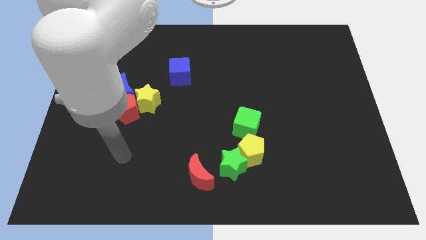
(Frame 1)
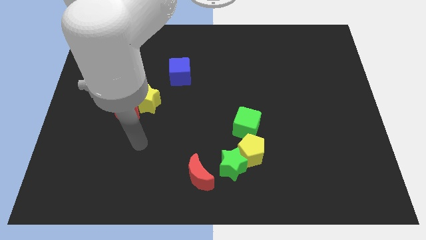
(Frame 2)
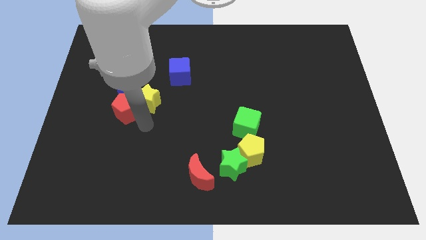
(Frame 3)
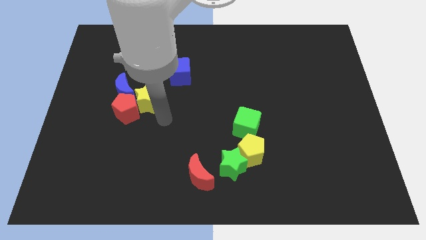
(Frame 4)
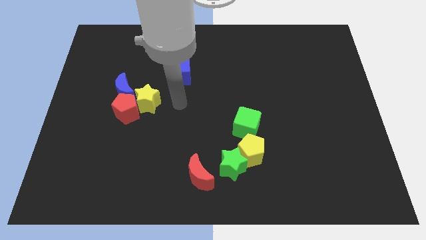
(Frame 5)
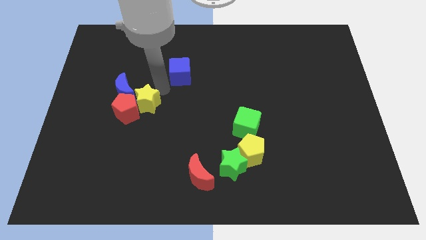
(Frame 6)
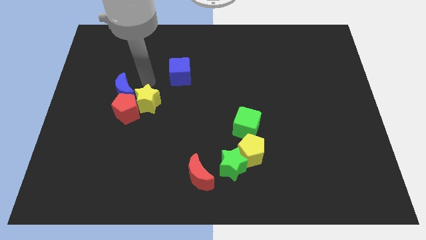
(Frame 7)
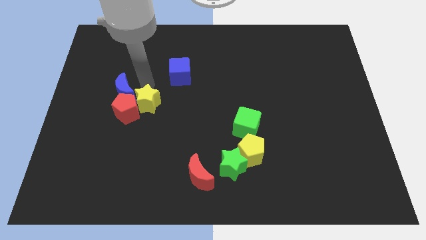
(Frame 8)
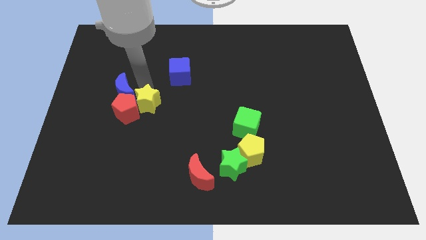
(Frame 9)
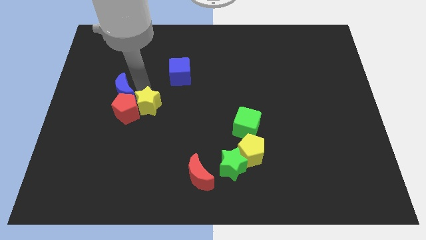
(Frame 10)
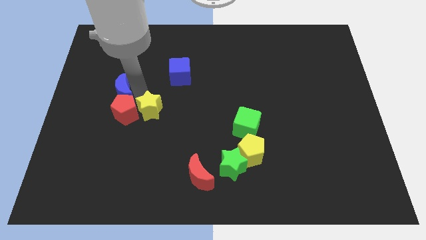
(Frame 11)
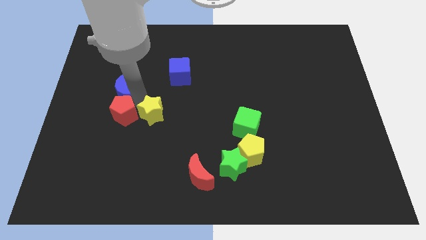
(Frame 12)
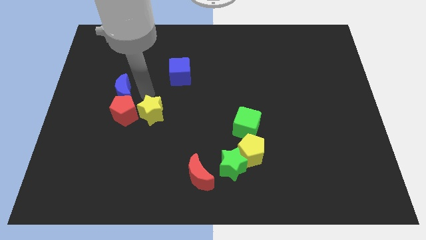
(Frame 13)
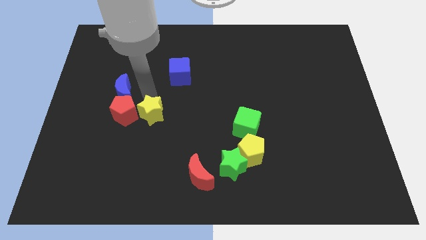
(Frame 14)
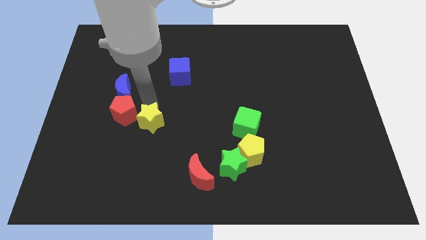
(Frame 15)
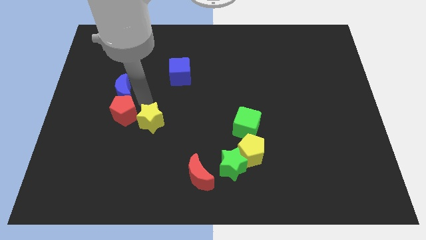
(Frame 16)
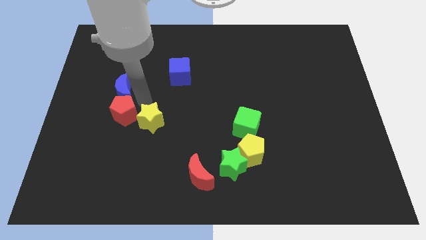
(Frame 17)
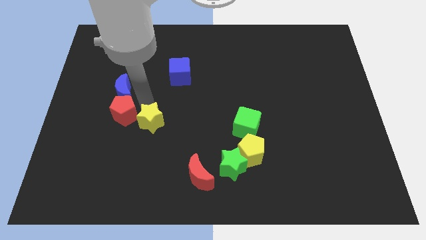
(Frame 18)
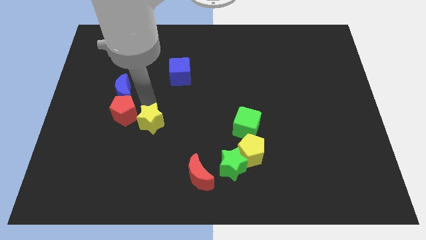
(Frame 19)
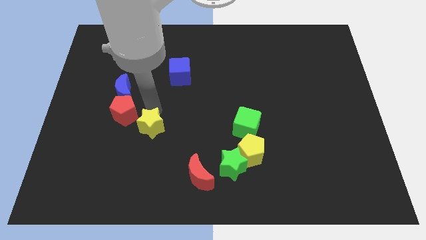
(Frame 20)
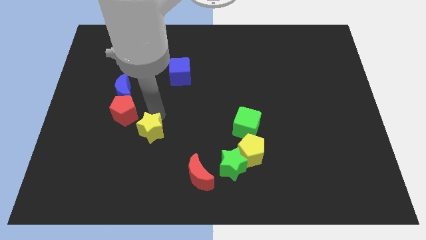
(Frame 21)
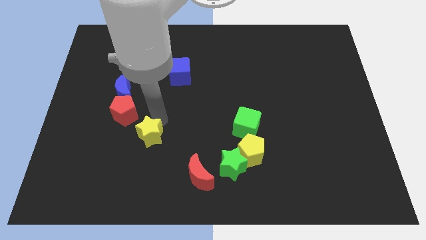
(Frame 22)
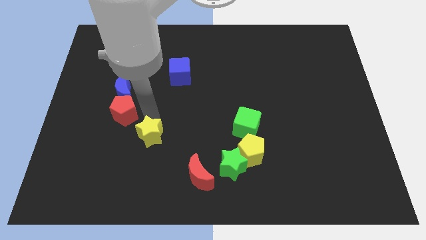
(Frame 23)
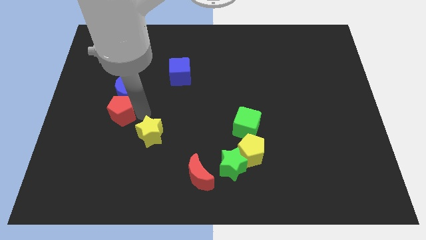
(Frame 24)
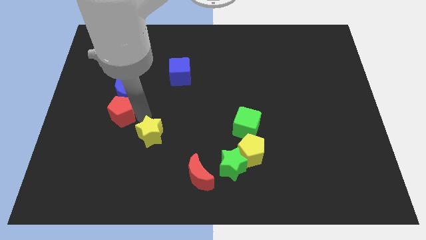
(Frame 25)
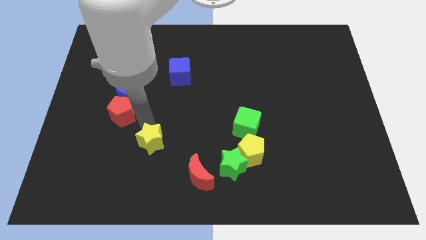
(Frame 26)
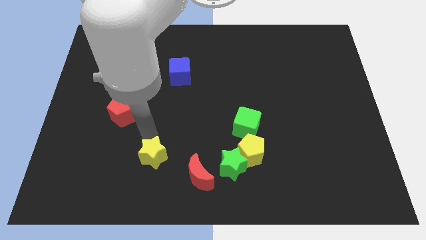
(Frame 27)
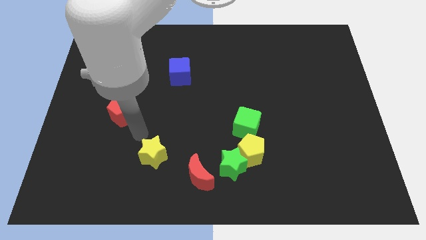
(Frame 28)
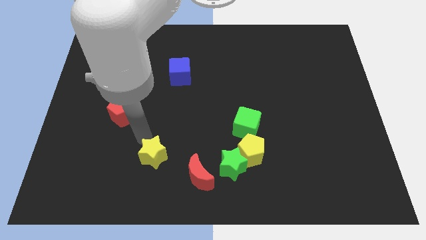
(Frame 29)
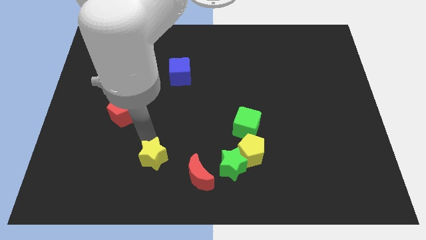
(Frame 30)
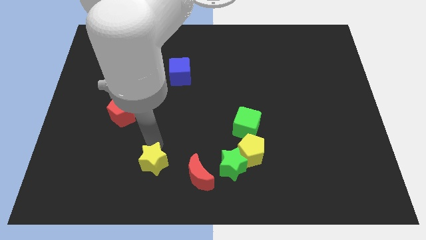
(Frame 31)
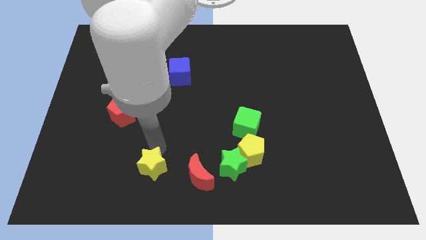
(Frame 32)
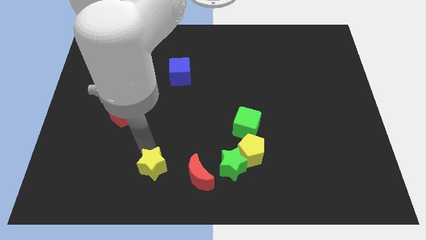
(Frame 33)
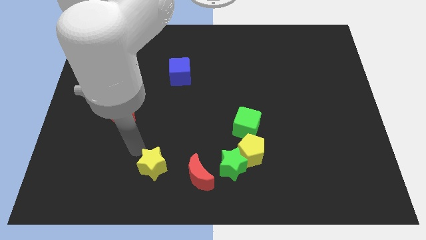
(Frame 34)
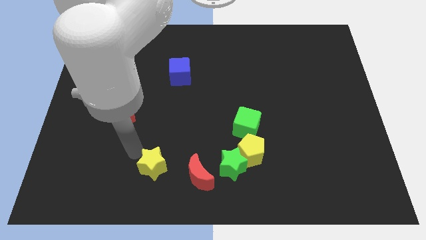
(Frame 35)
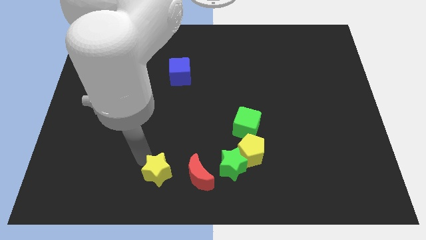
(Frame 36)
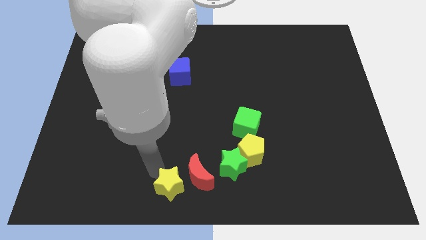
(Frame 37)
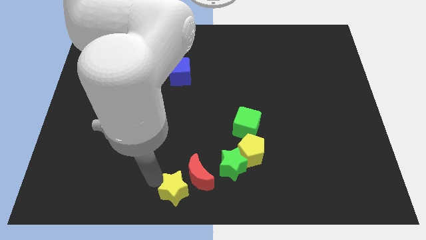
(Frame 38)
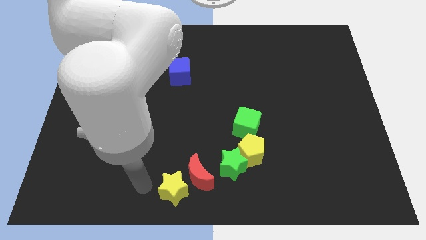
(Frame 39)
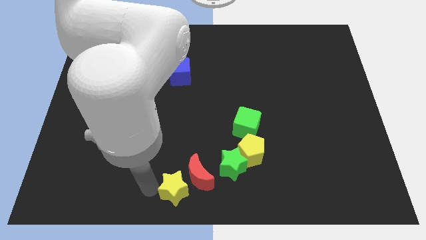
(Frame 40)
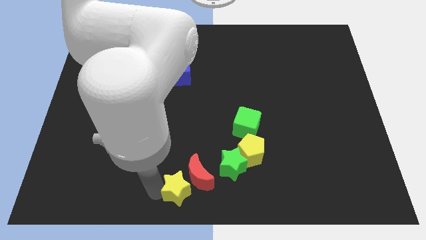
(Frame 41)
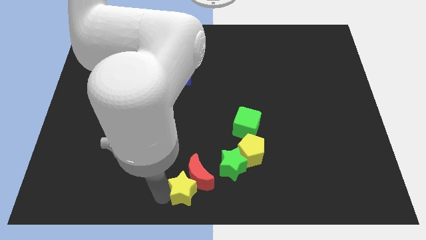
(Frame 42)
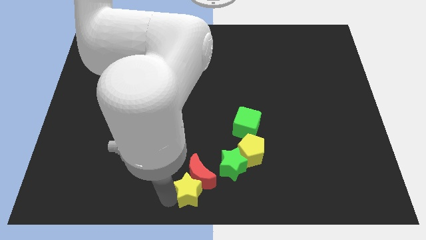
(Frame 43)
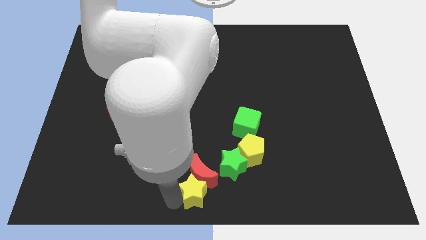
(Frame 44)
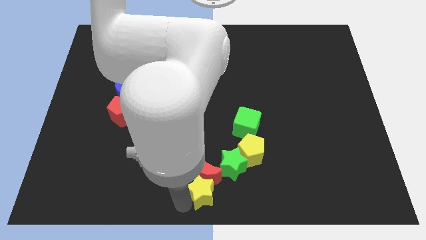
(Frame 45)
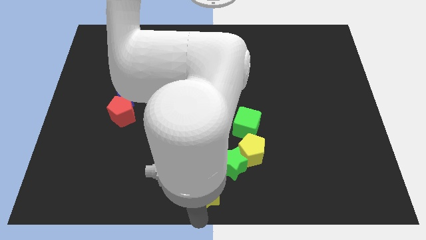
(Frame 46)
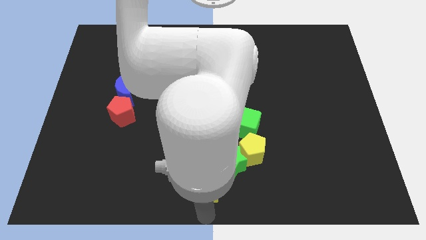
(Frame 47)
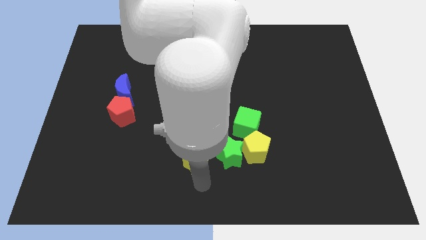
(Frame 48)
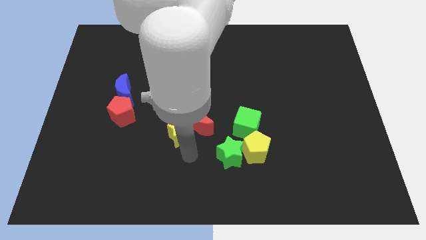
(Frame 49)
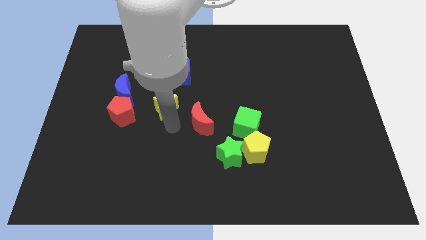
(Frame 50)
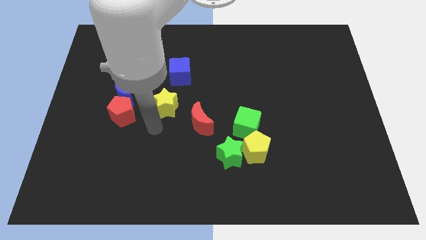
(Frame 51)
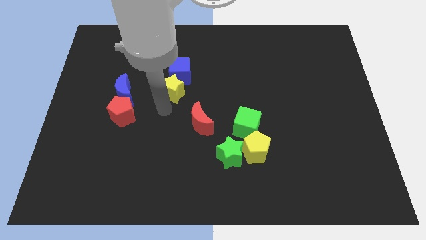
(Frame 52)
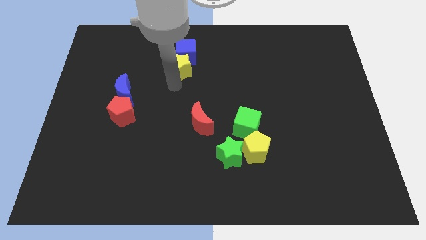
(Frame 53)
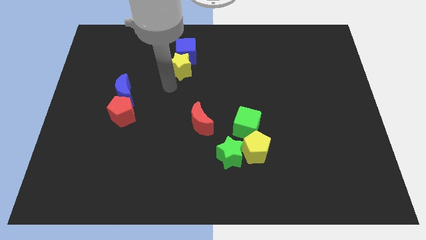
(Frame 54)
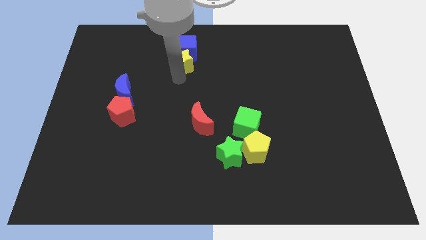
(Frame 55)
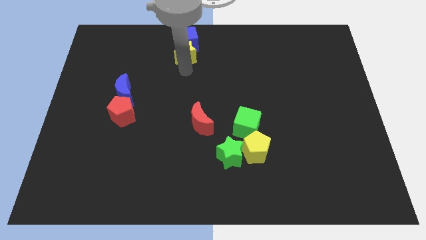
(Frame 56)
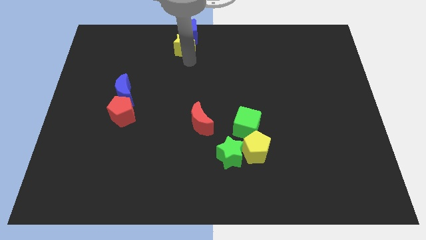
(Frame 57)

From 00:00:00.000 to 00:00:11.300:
slide the yellow star to the top side

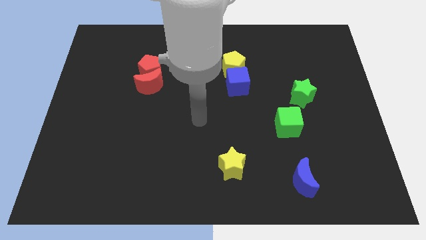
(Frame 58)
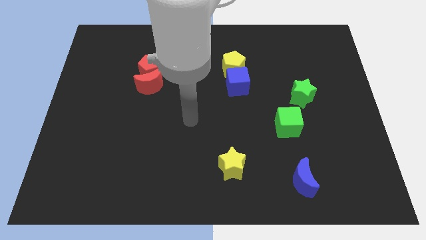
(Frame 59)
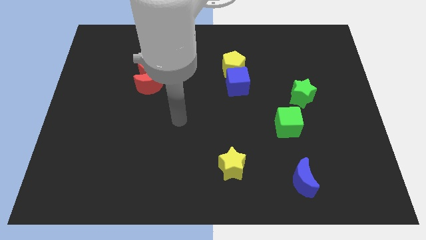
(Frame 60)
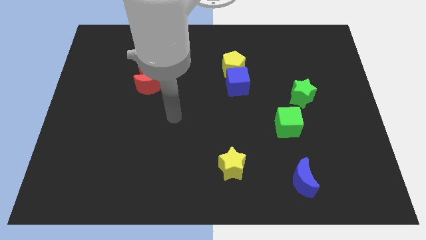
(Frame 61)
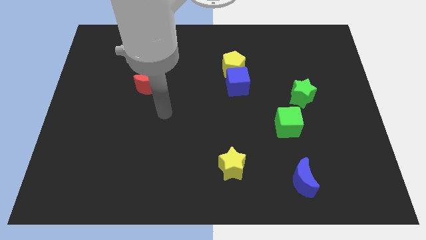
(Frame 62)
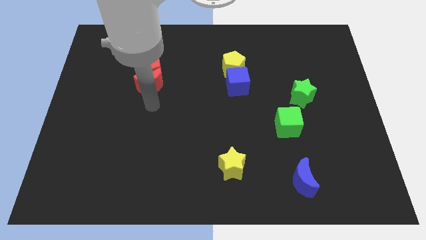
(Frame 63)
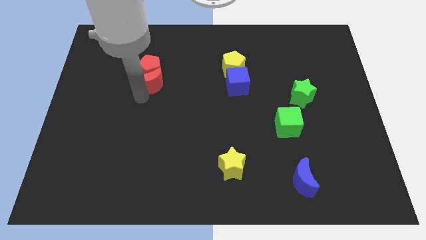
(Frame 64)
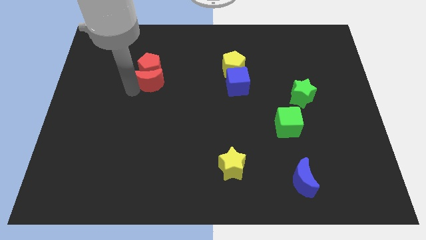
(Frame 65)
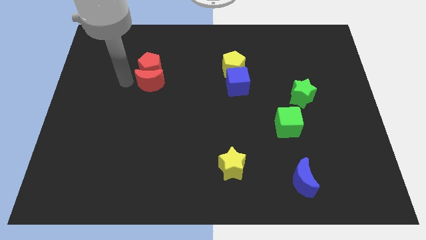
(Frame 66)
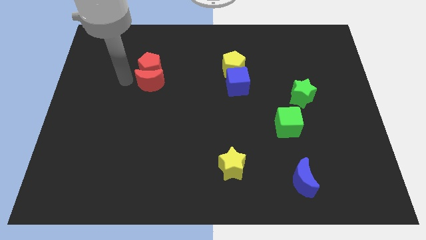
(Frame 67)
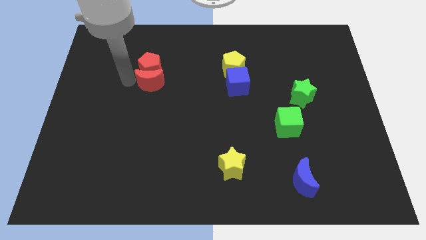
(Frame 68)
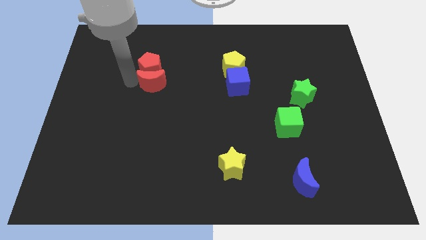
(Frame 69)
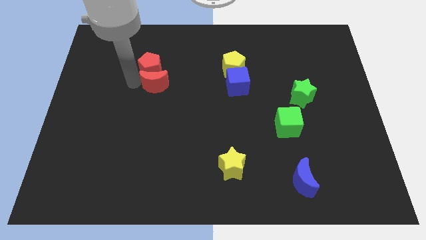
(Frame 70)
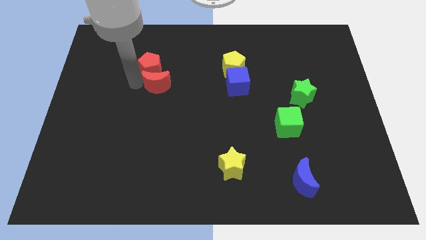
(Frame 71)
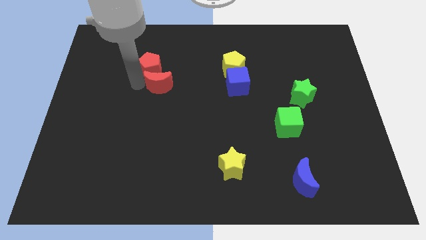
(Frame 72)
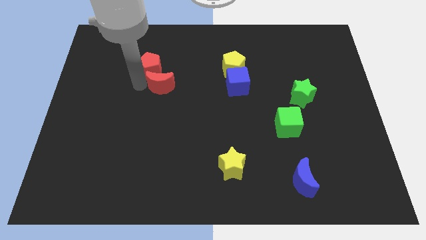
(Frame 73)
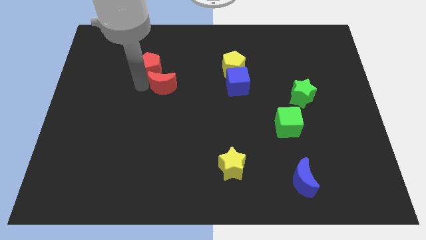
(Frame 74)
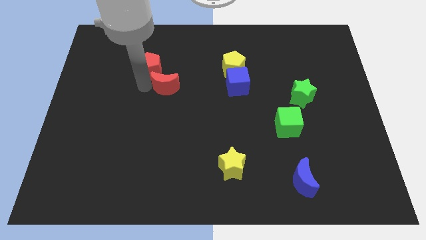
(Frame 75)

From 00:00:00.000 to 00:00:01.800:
slide the red moon to the middle
